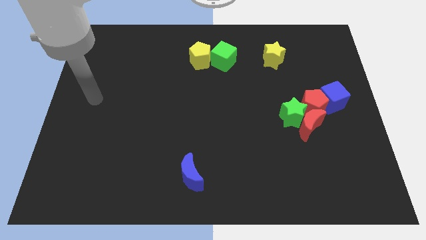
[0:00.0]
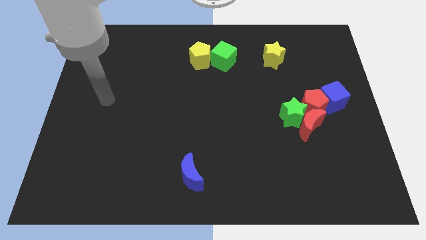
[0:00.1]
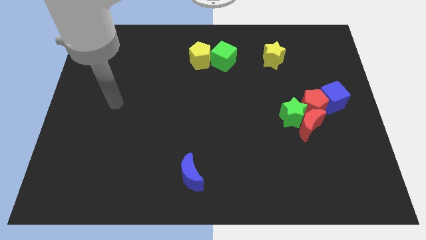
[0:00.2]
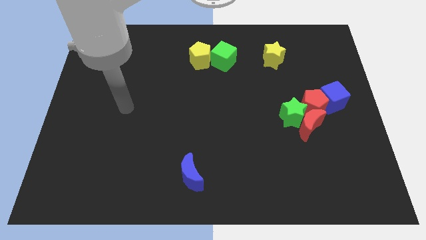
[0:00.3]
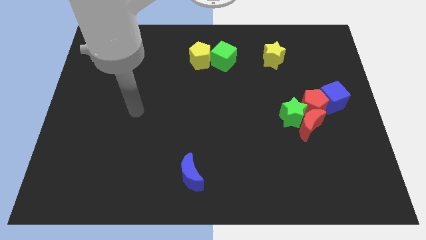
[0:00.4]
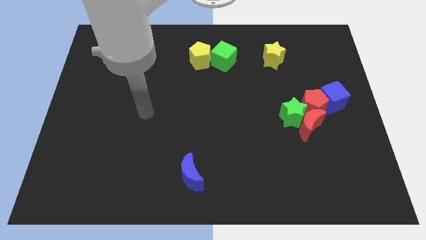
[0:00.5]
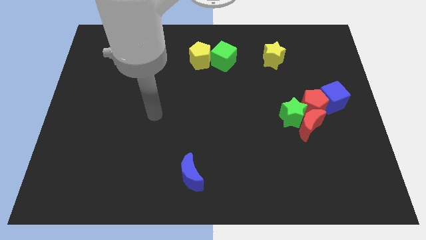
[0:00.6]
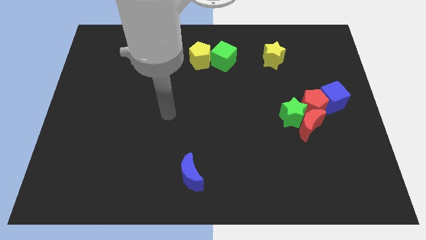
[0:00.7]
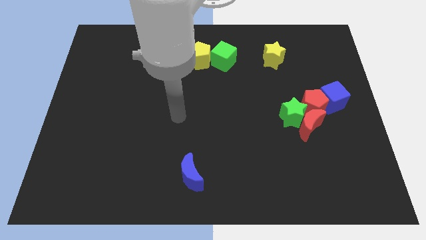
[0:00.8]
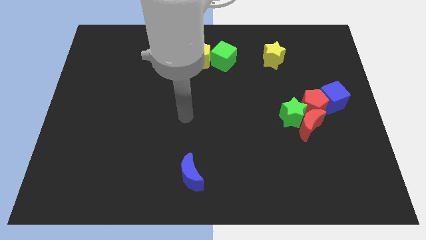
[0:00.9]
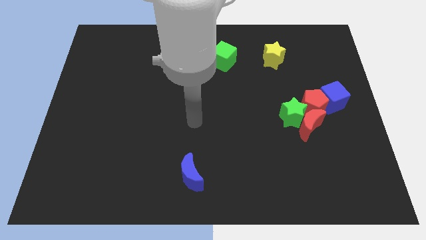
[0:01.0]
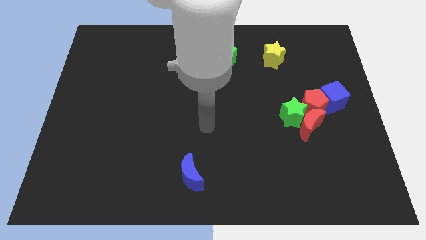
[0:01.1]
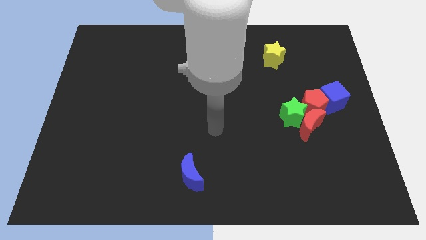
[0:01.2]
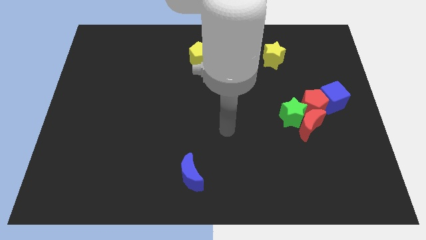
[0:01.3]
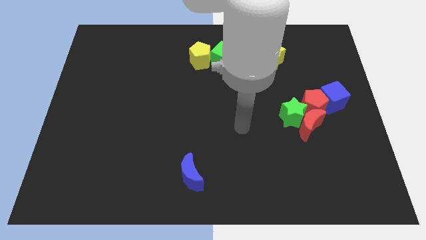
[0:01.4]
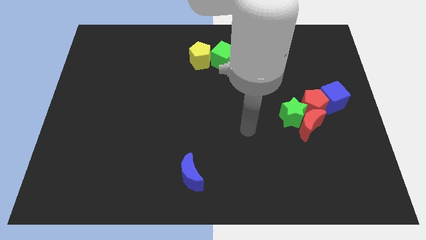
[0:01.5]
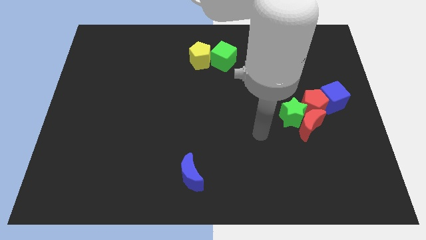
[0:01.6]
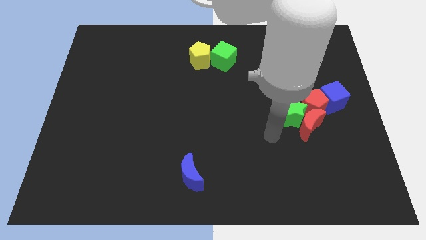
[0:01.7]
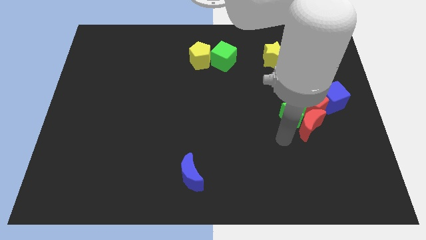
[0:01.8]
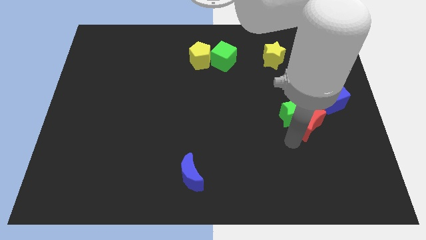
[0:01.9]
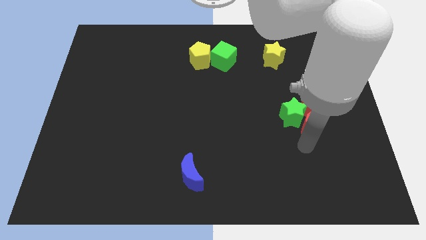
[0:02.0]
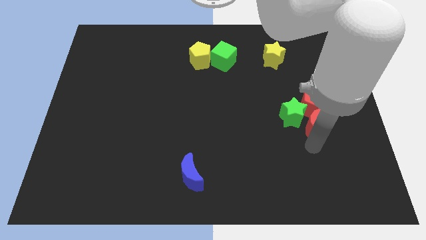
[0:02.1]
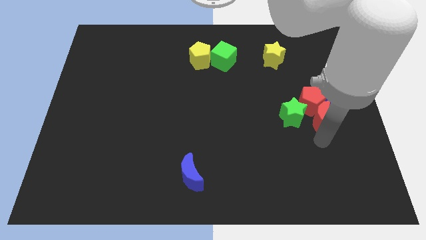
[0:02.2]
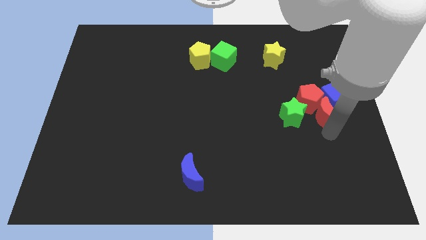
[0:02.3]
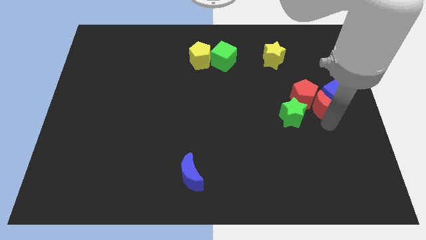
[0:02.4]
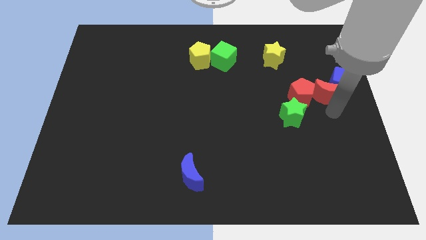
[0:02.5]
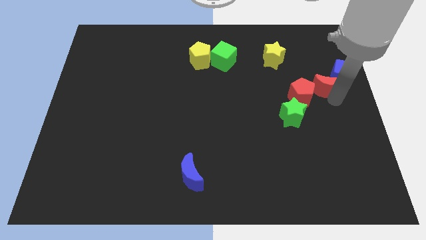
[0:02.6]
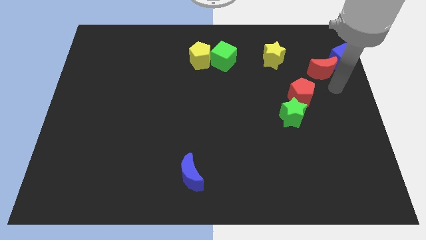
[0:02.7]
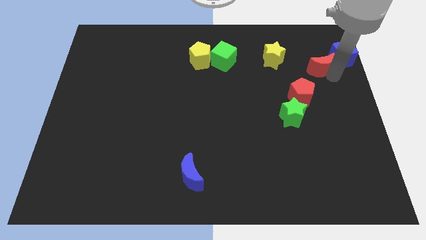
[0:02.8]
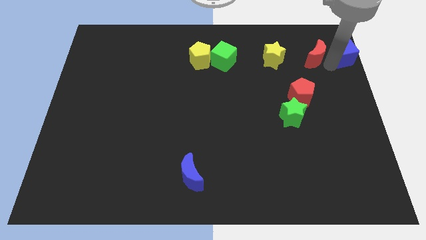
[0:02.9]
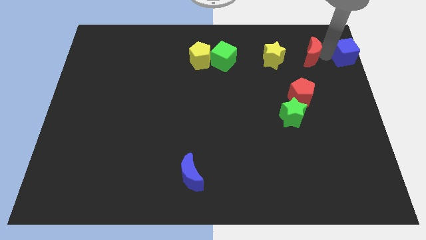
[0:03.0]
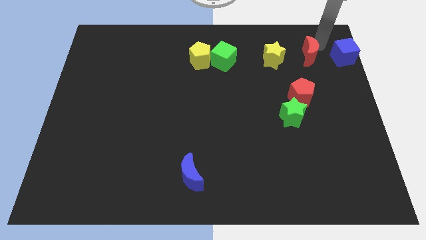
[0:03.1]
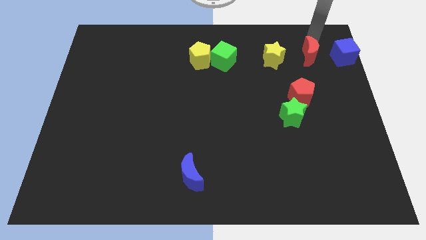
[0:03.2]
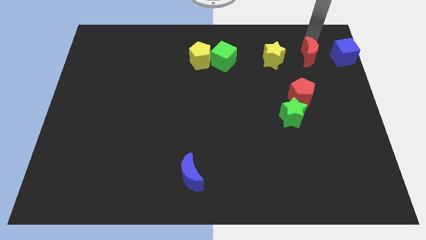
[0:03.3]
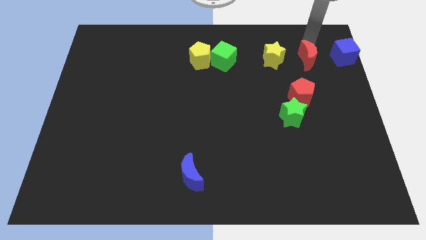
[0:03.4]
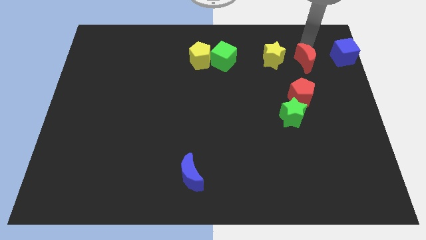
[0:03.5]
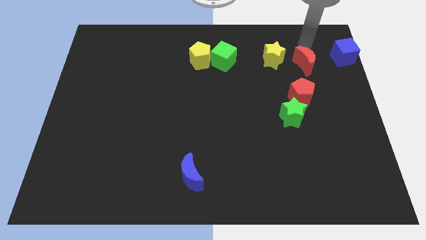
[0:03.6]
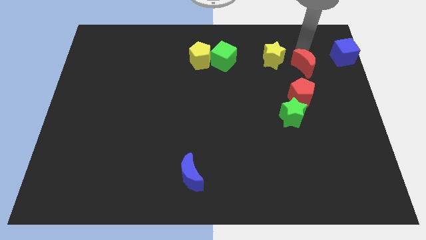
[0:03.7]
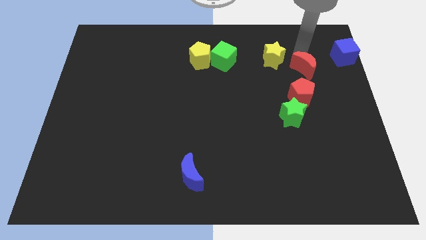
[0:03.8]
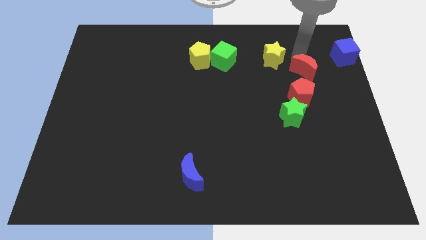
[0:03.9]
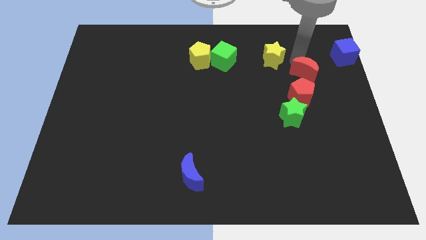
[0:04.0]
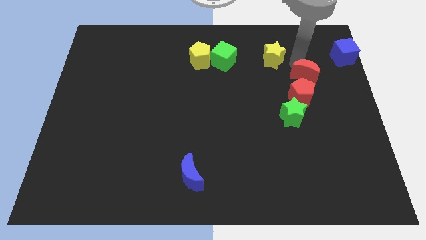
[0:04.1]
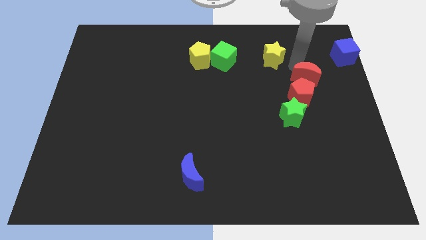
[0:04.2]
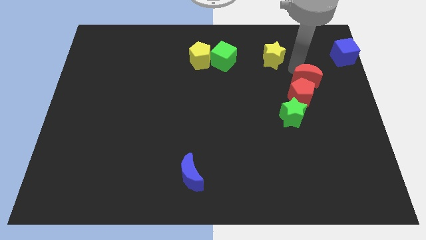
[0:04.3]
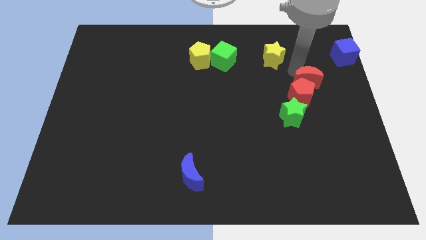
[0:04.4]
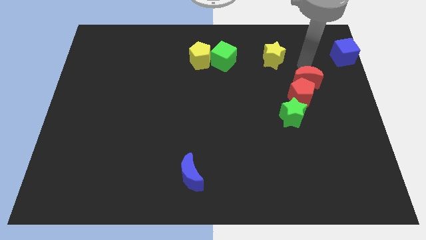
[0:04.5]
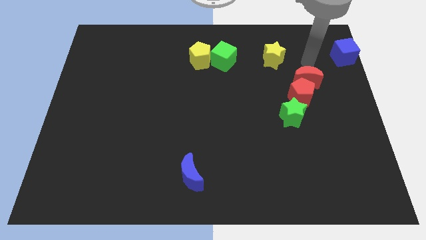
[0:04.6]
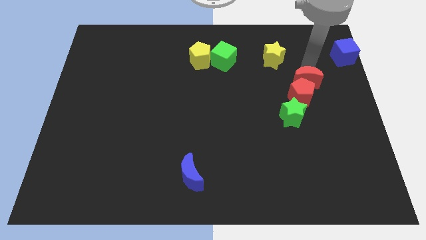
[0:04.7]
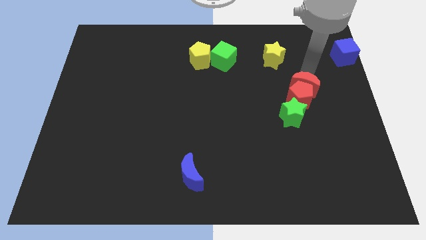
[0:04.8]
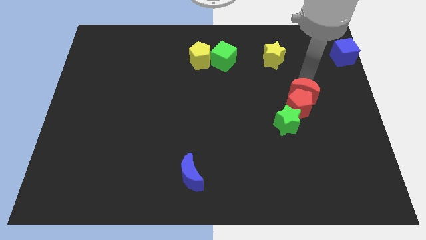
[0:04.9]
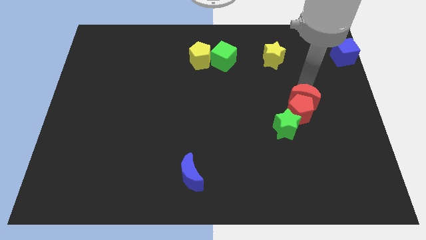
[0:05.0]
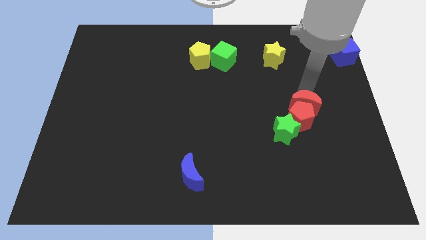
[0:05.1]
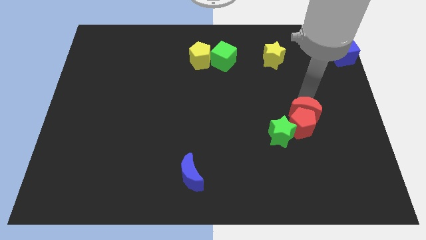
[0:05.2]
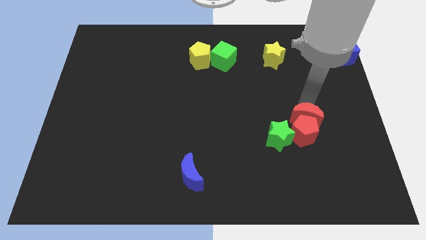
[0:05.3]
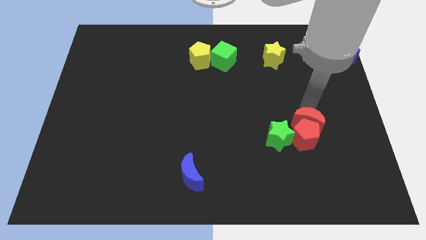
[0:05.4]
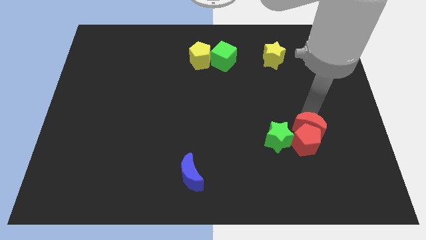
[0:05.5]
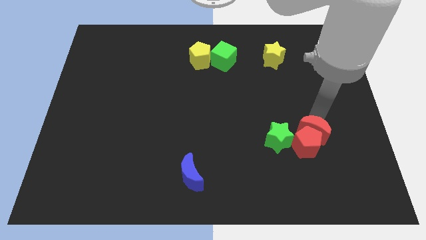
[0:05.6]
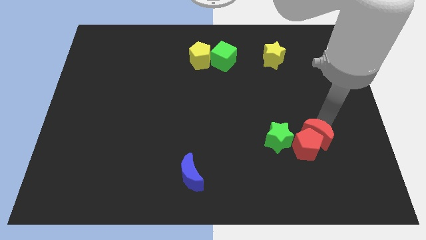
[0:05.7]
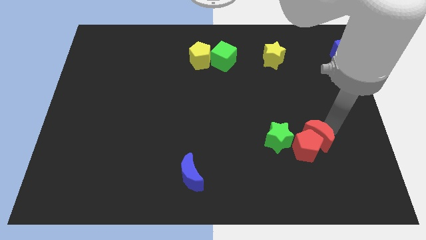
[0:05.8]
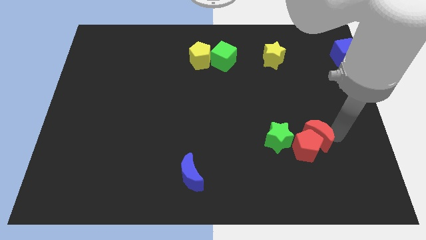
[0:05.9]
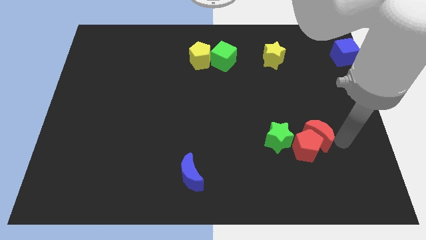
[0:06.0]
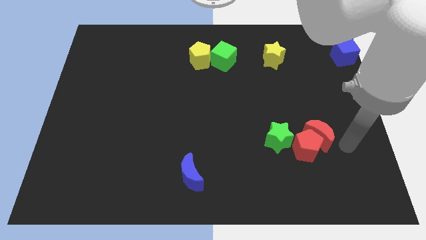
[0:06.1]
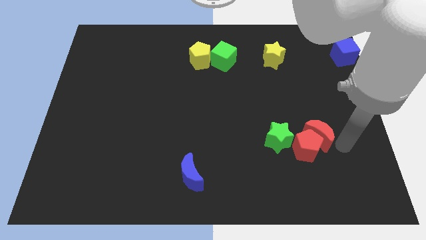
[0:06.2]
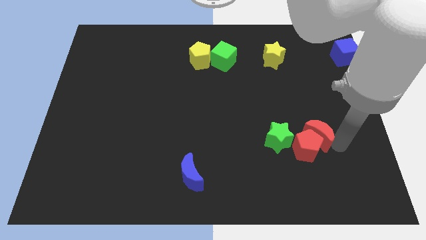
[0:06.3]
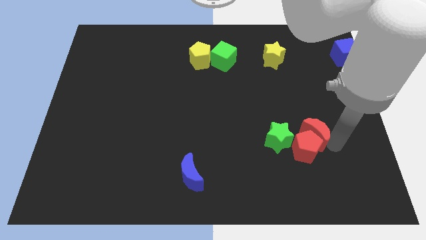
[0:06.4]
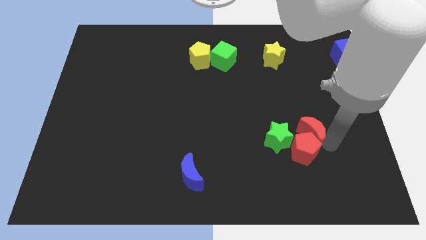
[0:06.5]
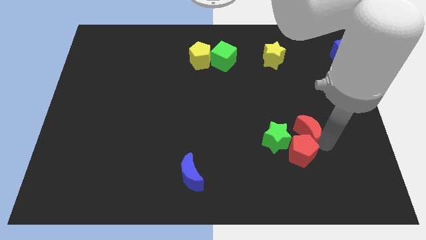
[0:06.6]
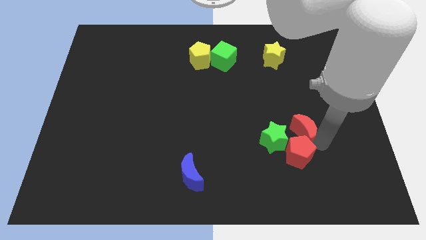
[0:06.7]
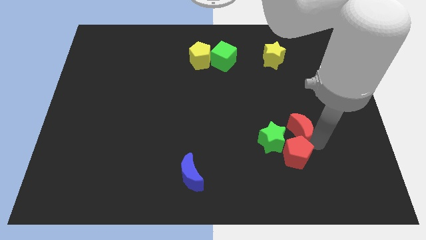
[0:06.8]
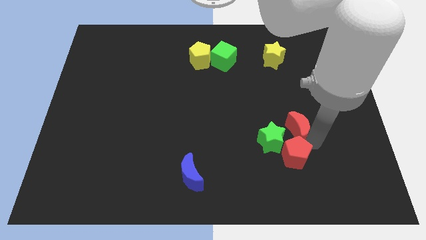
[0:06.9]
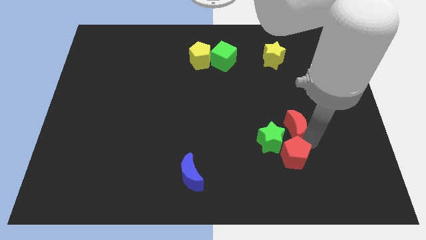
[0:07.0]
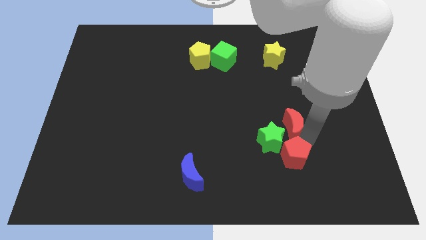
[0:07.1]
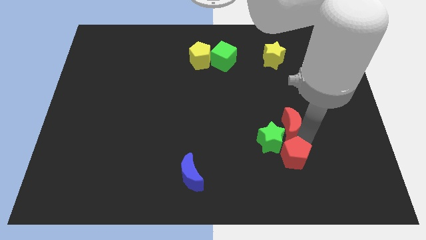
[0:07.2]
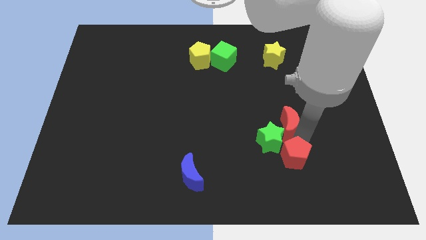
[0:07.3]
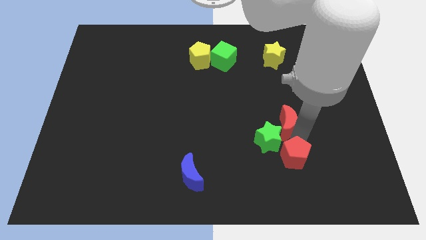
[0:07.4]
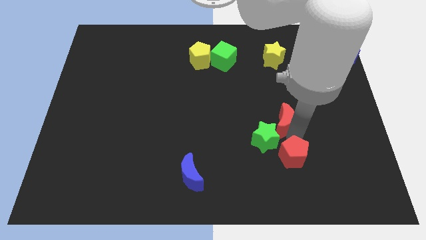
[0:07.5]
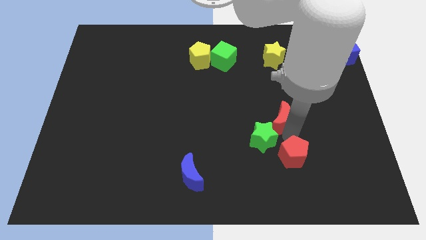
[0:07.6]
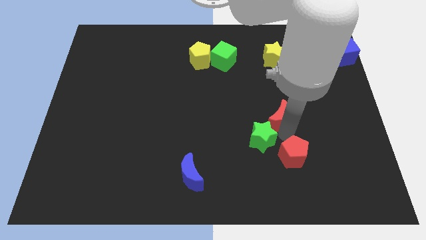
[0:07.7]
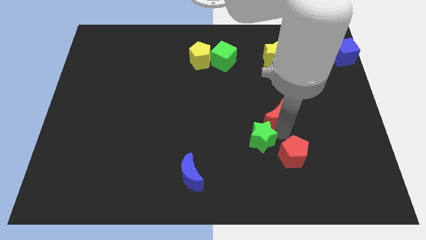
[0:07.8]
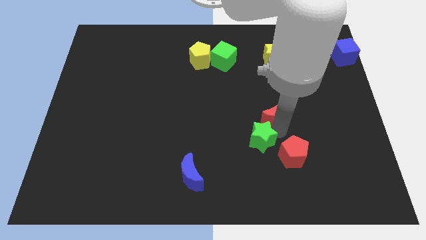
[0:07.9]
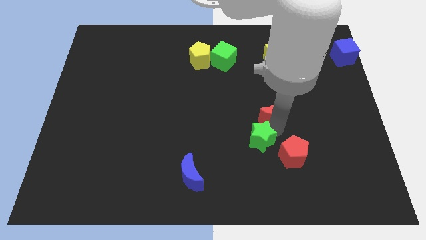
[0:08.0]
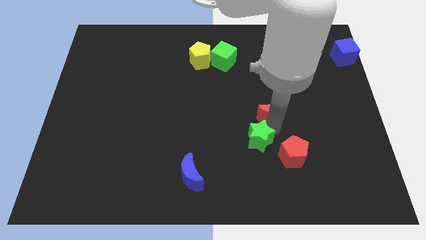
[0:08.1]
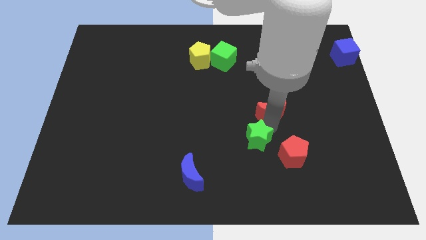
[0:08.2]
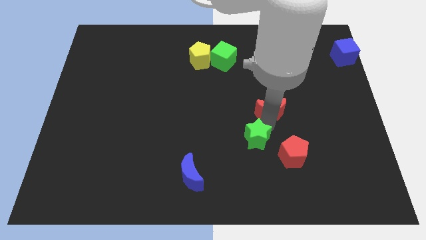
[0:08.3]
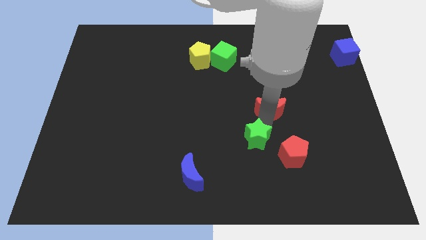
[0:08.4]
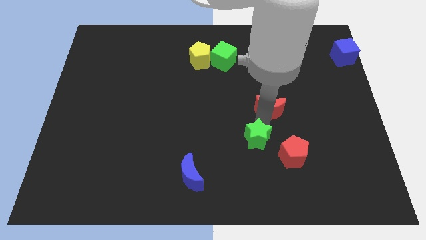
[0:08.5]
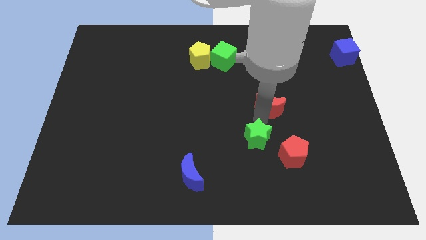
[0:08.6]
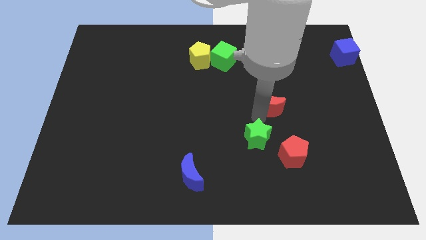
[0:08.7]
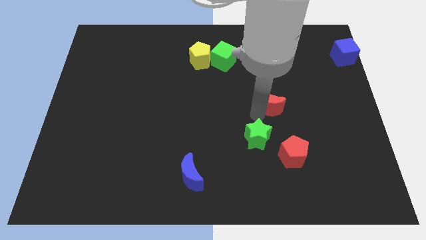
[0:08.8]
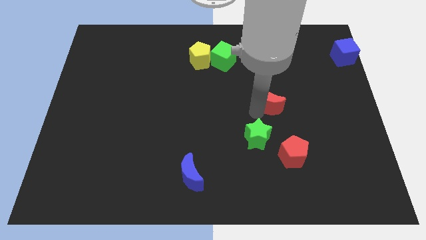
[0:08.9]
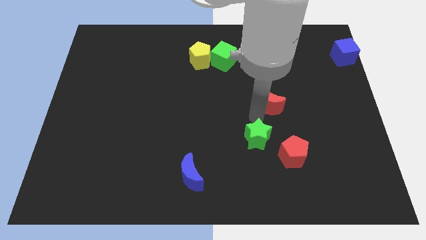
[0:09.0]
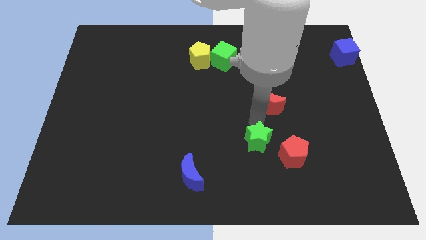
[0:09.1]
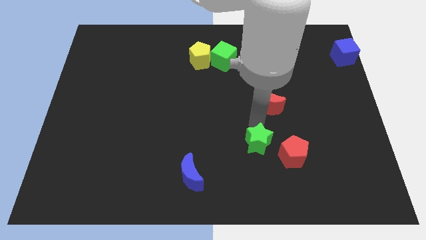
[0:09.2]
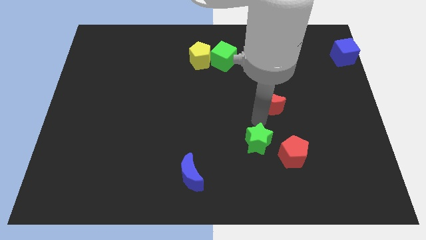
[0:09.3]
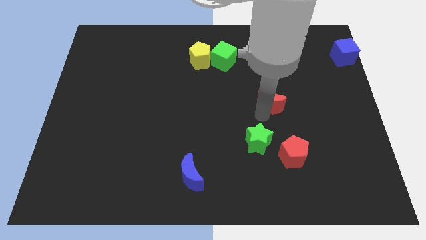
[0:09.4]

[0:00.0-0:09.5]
move the red moon to the bottom side of the yellow star
